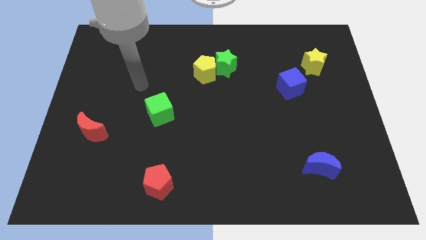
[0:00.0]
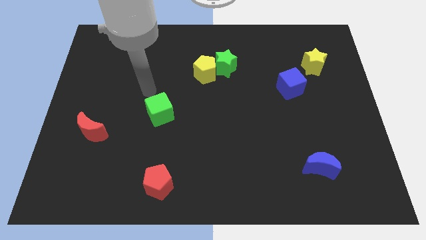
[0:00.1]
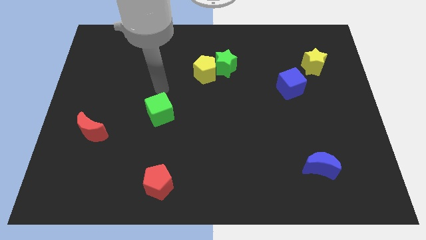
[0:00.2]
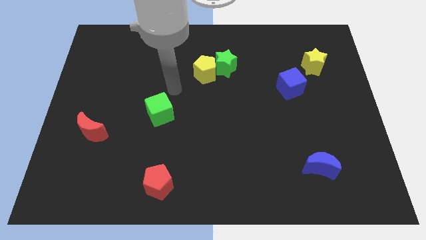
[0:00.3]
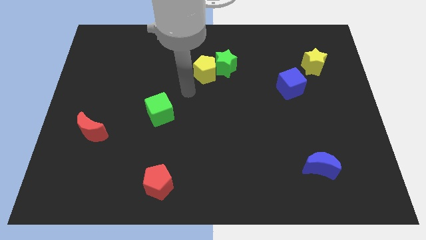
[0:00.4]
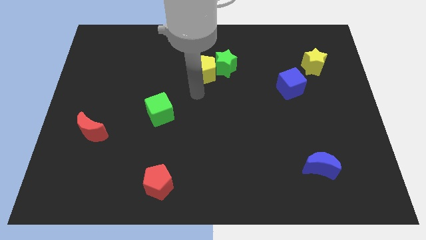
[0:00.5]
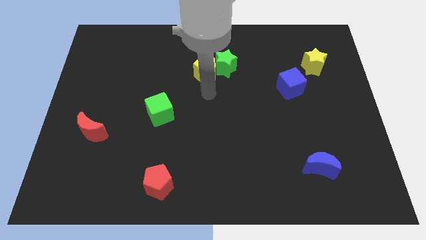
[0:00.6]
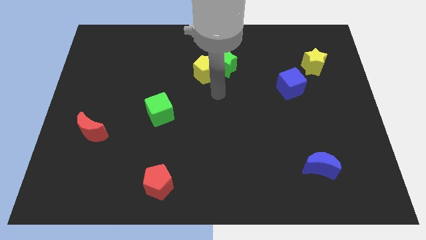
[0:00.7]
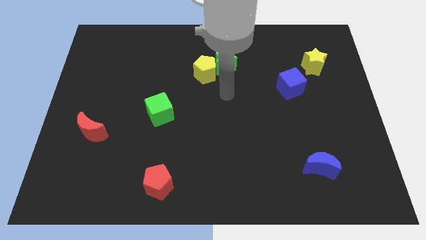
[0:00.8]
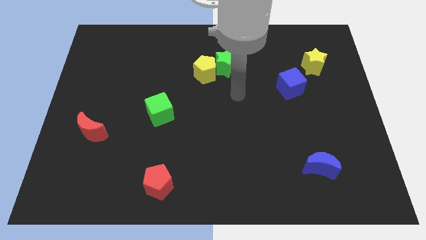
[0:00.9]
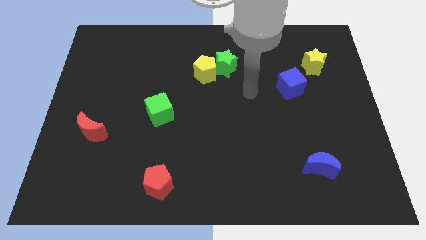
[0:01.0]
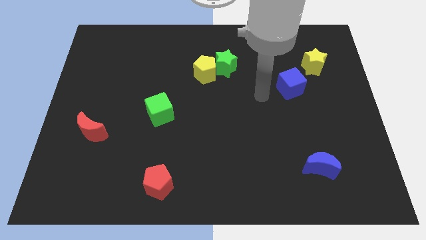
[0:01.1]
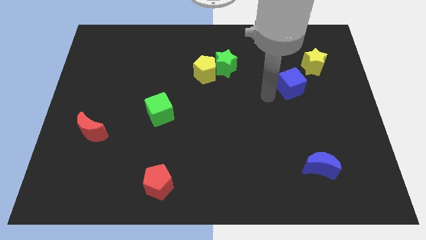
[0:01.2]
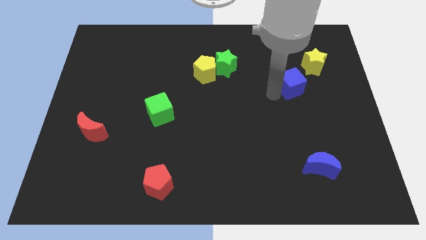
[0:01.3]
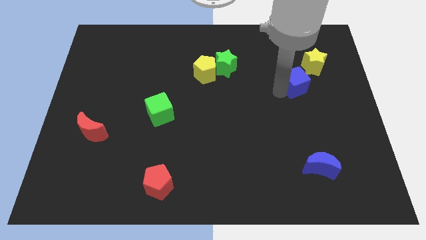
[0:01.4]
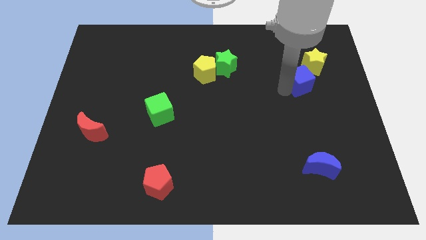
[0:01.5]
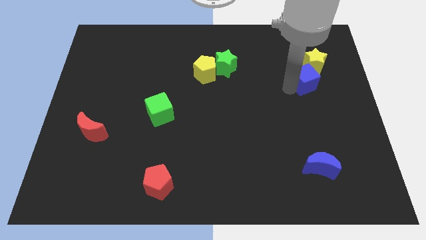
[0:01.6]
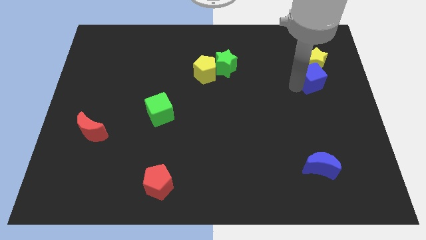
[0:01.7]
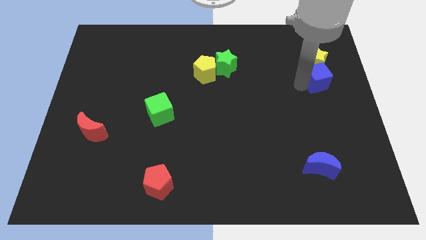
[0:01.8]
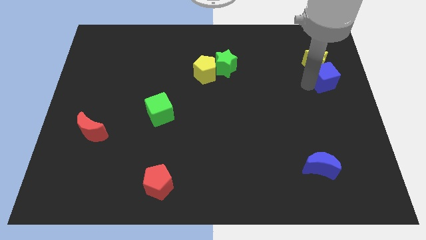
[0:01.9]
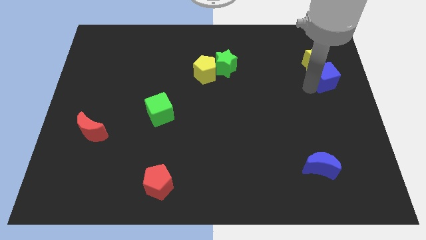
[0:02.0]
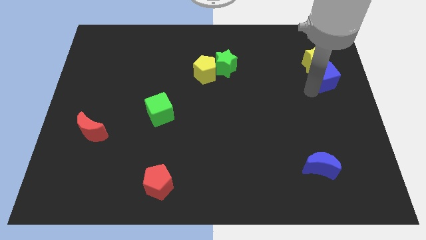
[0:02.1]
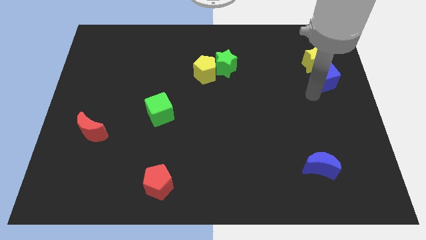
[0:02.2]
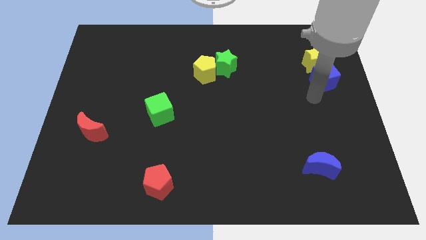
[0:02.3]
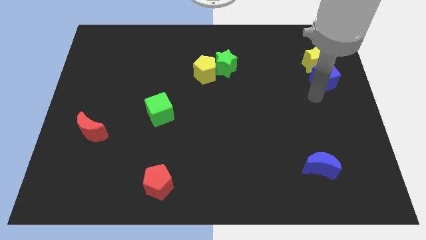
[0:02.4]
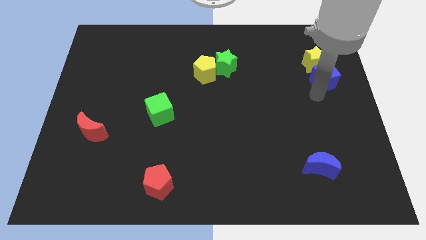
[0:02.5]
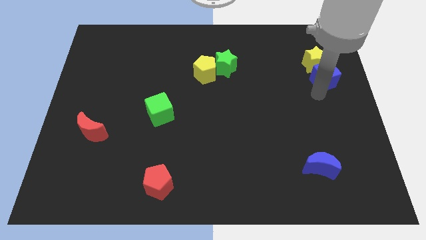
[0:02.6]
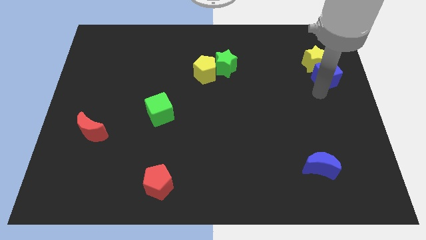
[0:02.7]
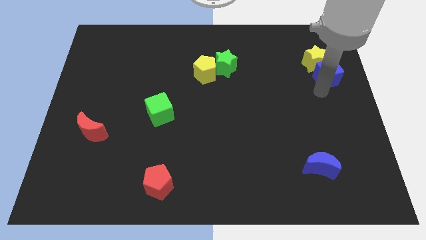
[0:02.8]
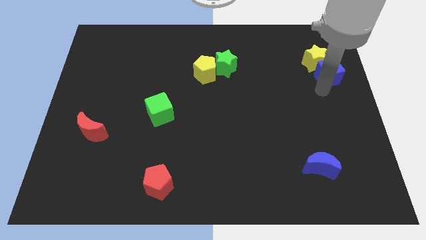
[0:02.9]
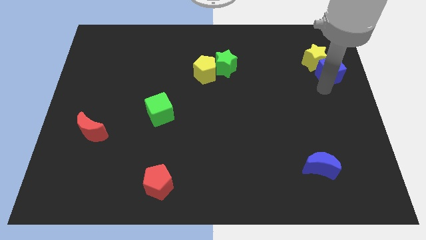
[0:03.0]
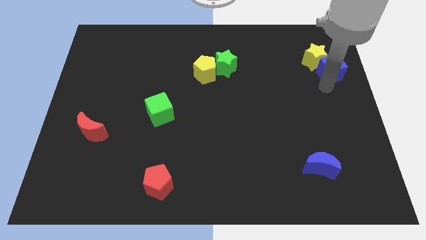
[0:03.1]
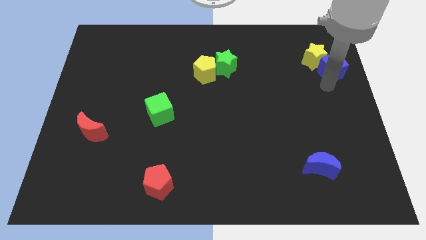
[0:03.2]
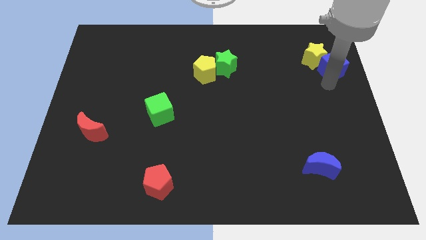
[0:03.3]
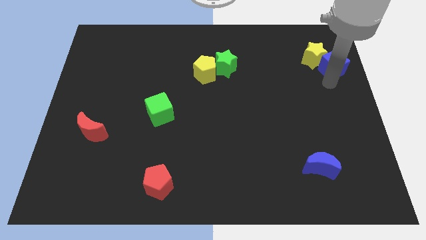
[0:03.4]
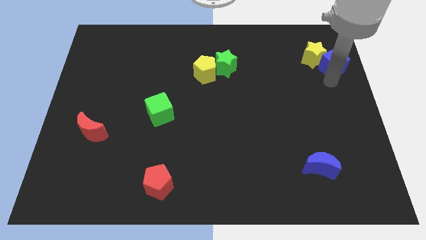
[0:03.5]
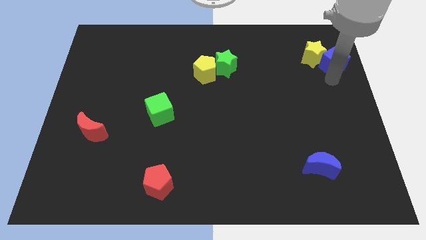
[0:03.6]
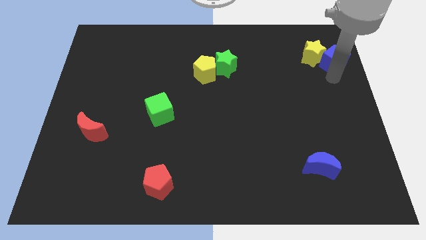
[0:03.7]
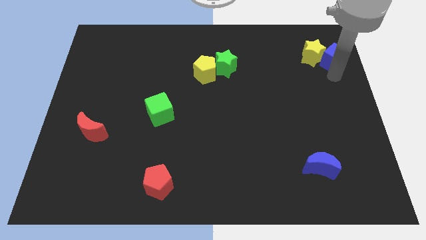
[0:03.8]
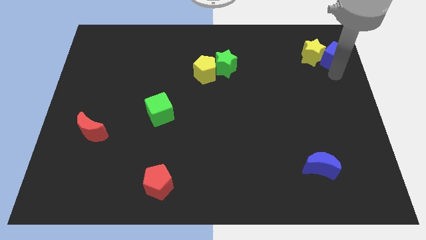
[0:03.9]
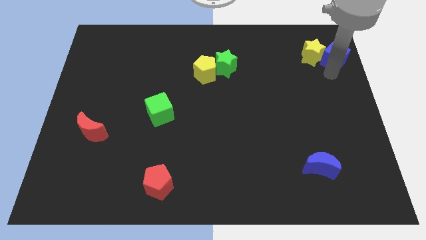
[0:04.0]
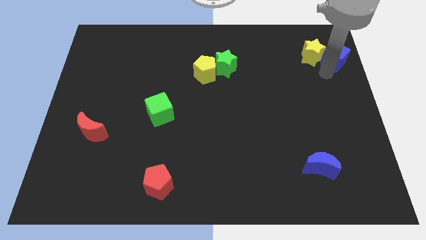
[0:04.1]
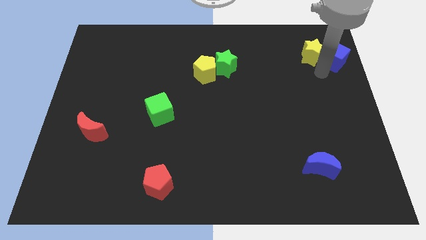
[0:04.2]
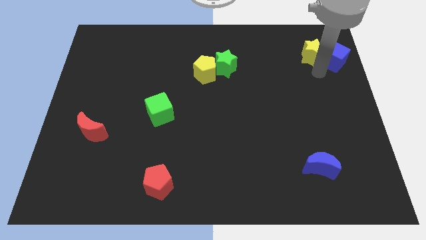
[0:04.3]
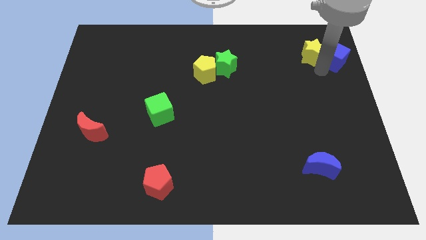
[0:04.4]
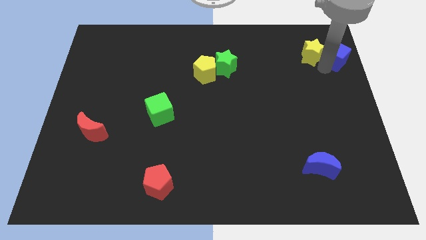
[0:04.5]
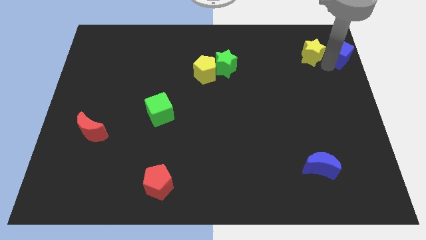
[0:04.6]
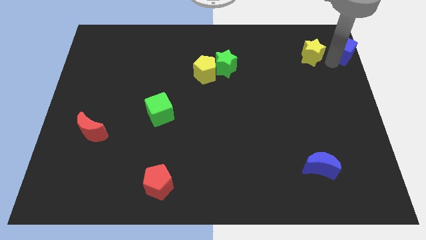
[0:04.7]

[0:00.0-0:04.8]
slide the blue cube to the top right

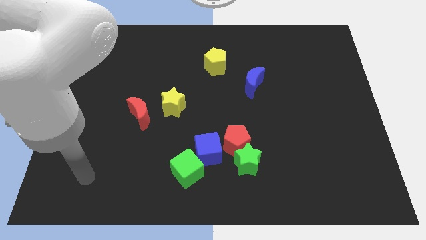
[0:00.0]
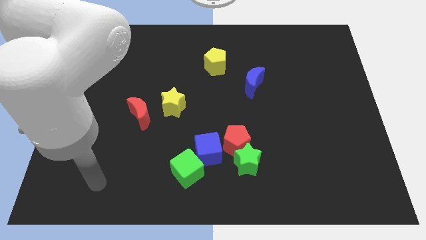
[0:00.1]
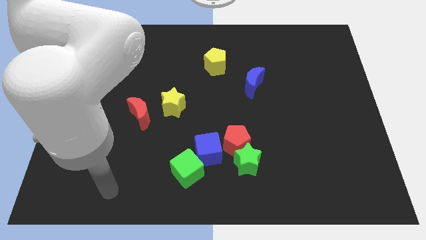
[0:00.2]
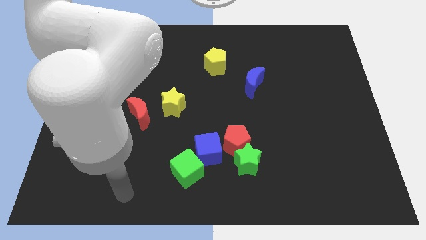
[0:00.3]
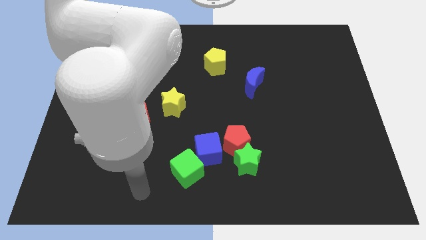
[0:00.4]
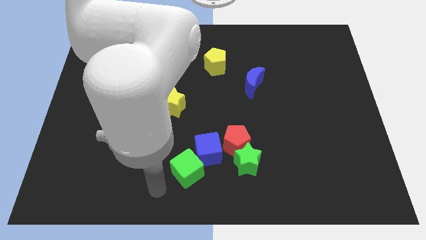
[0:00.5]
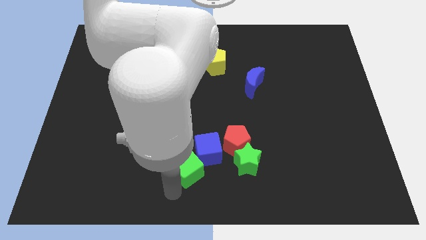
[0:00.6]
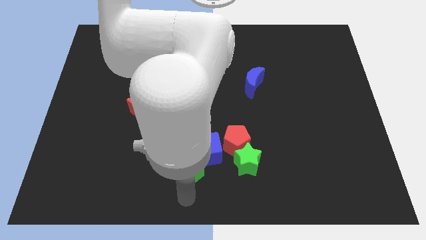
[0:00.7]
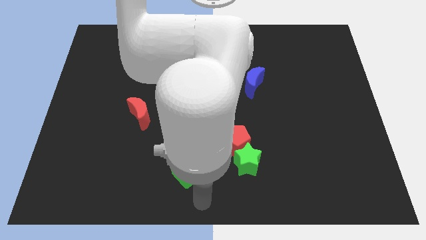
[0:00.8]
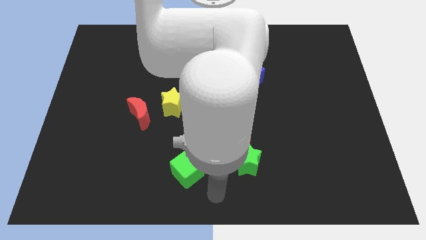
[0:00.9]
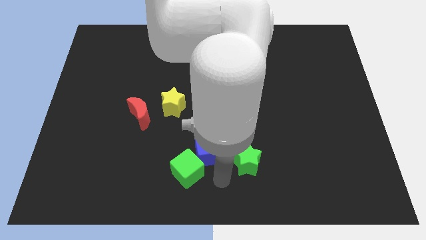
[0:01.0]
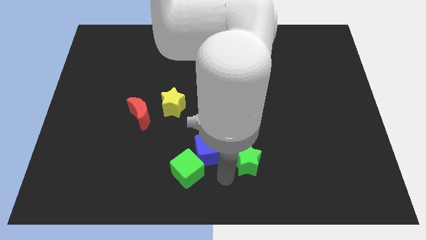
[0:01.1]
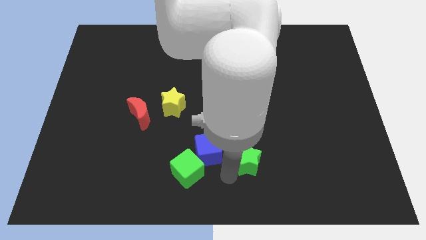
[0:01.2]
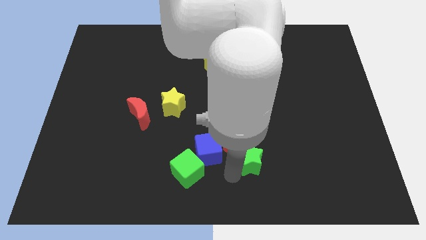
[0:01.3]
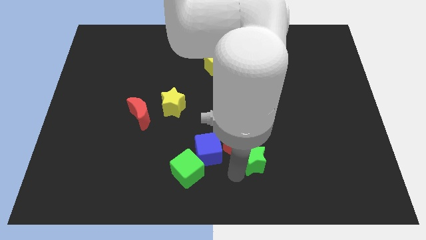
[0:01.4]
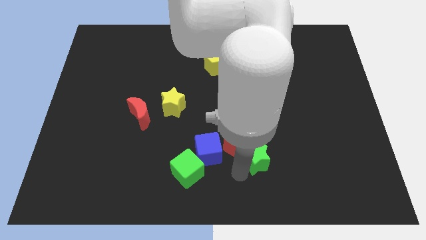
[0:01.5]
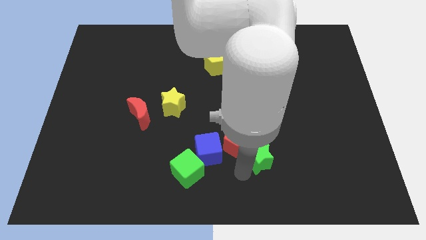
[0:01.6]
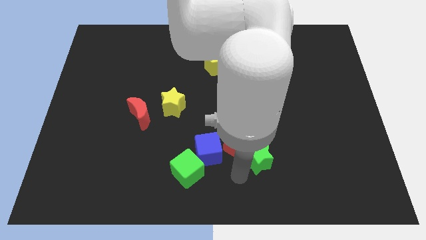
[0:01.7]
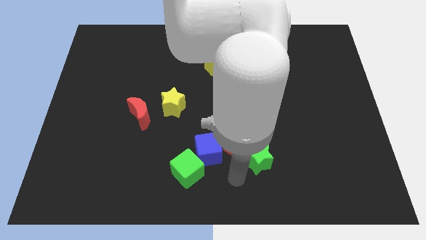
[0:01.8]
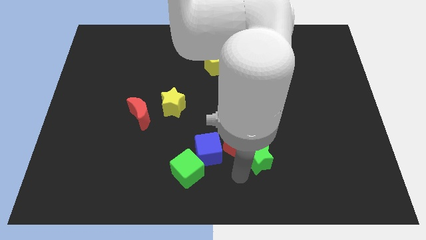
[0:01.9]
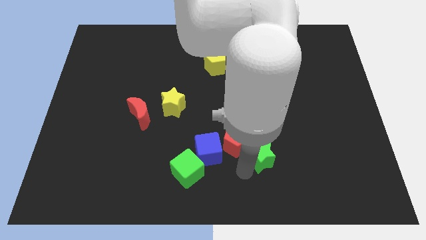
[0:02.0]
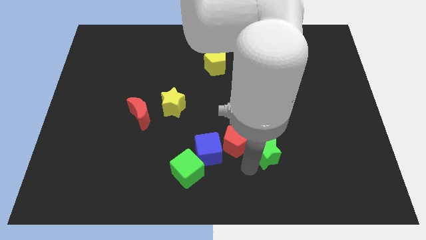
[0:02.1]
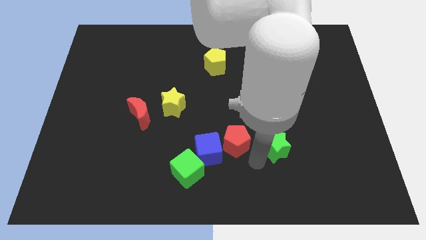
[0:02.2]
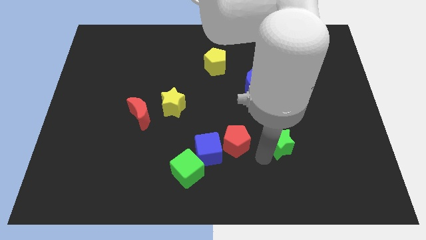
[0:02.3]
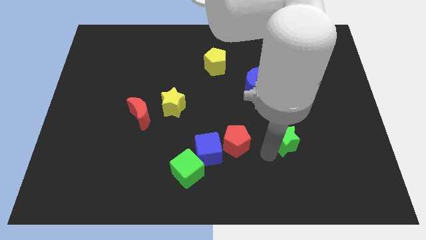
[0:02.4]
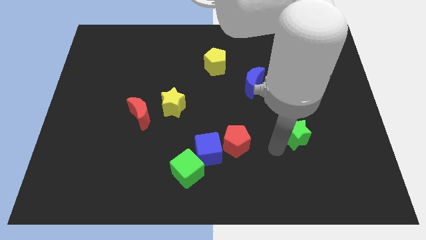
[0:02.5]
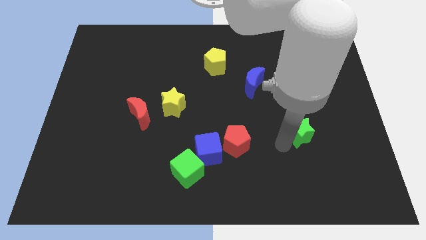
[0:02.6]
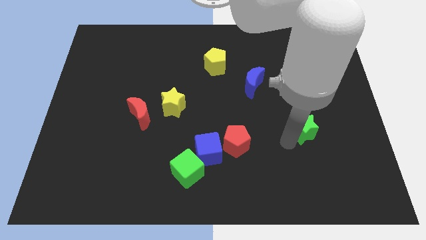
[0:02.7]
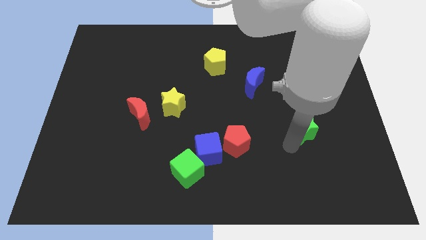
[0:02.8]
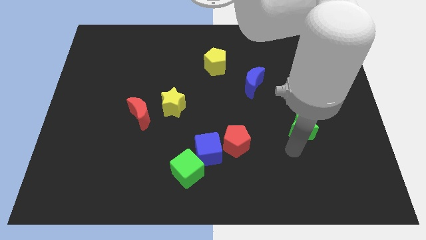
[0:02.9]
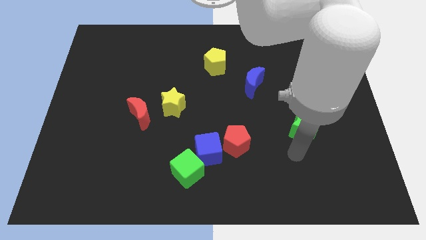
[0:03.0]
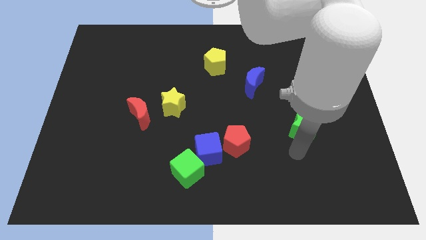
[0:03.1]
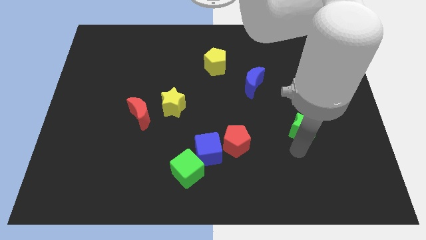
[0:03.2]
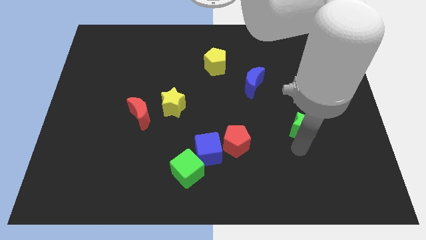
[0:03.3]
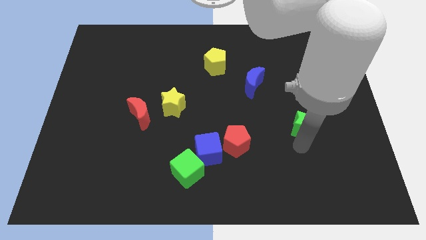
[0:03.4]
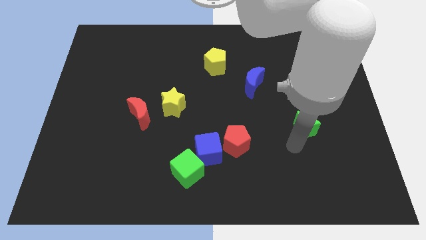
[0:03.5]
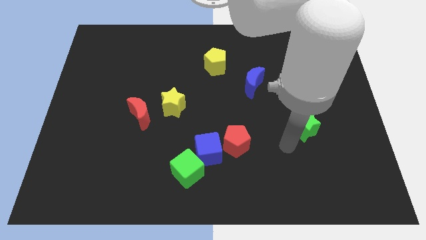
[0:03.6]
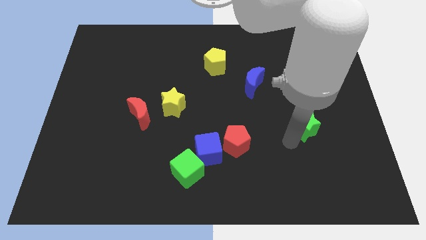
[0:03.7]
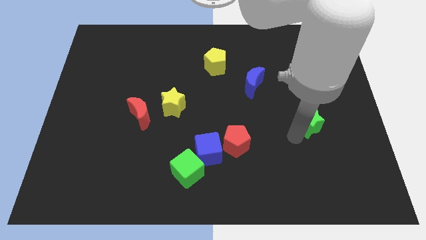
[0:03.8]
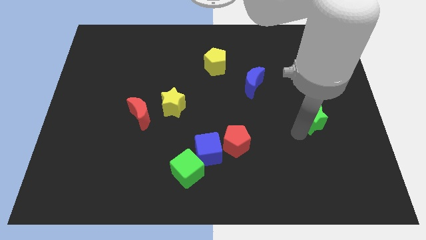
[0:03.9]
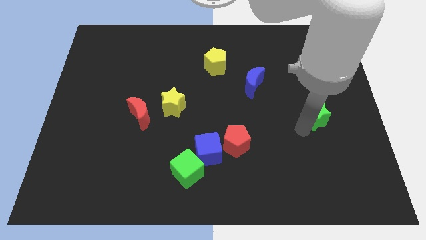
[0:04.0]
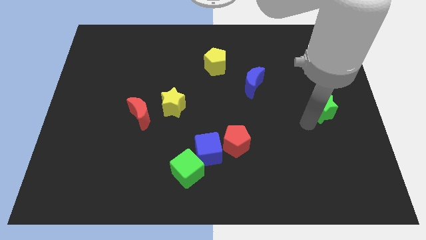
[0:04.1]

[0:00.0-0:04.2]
slide the green star to the right side of the board
